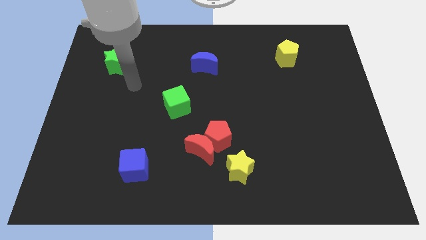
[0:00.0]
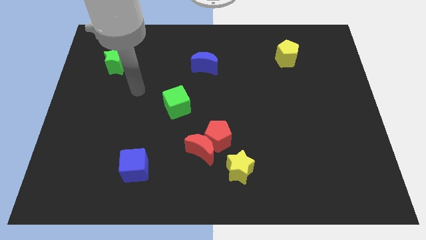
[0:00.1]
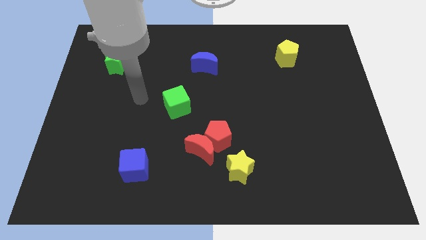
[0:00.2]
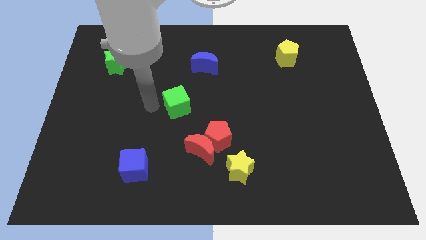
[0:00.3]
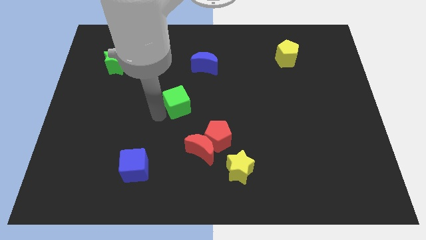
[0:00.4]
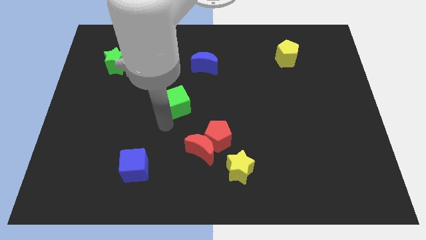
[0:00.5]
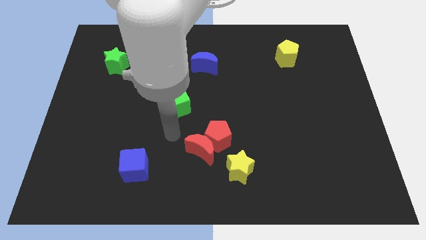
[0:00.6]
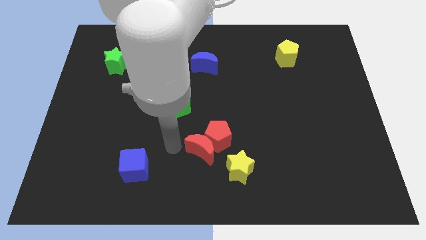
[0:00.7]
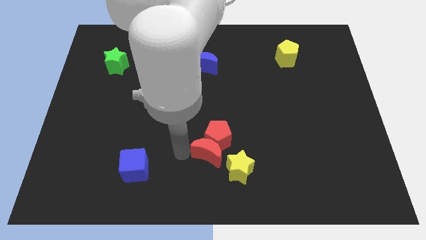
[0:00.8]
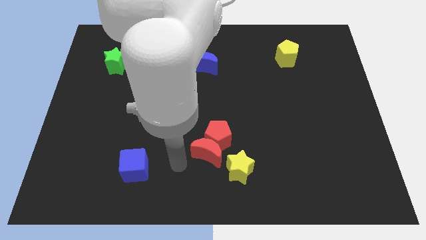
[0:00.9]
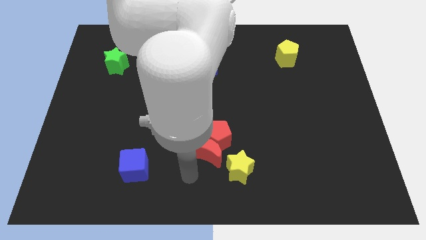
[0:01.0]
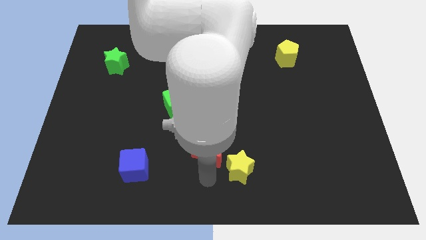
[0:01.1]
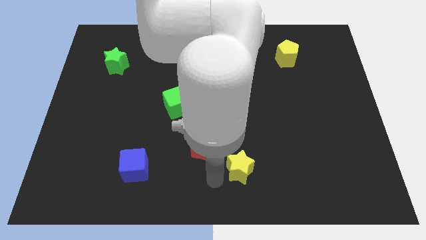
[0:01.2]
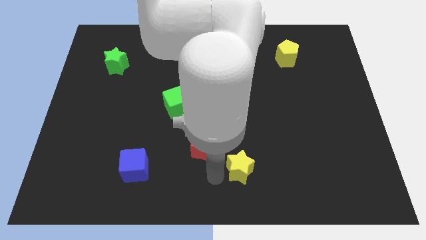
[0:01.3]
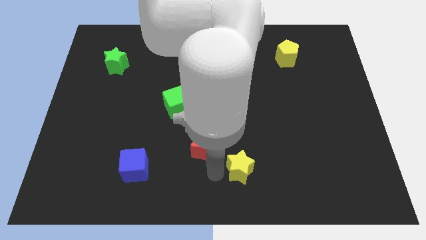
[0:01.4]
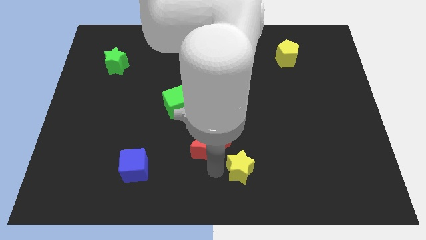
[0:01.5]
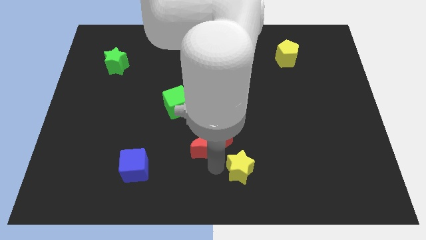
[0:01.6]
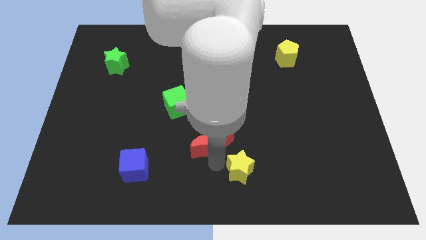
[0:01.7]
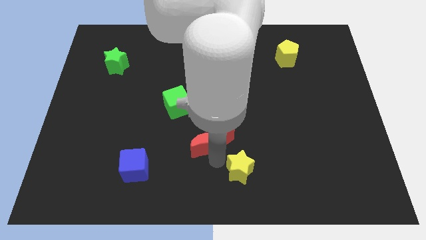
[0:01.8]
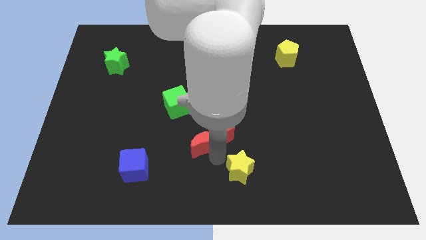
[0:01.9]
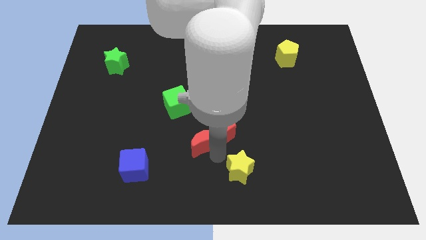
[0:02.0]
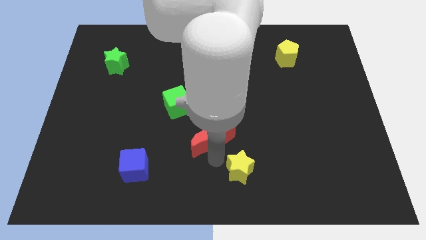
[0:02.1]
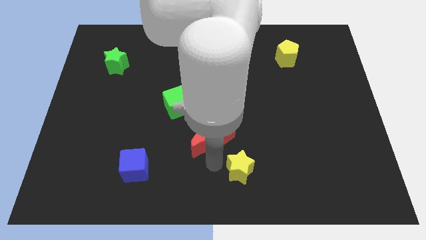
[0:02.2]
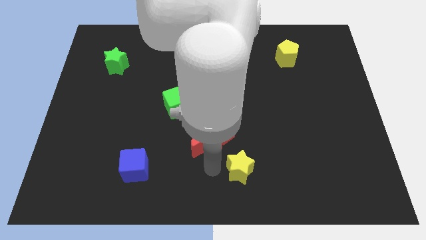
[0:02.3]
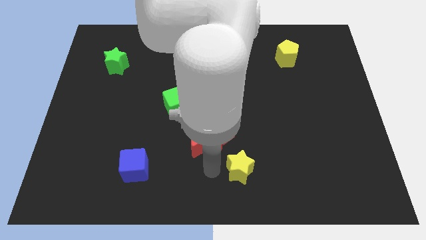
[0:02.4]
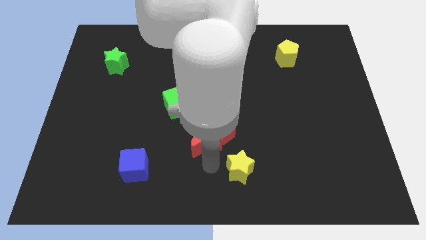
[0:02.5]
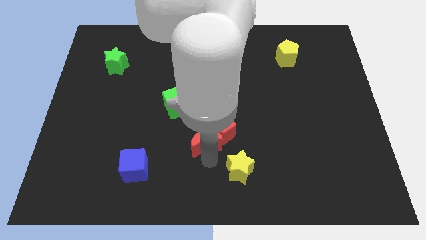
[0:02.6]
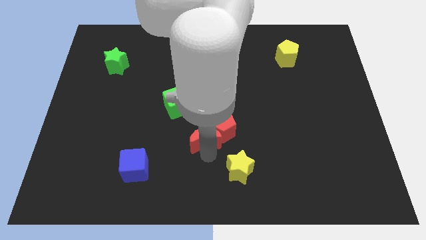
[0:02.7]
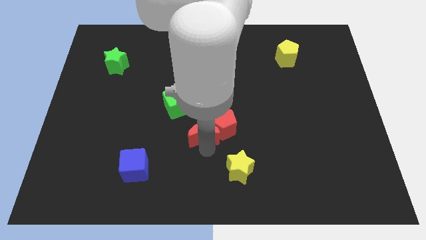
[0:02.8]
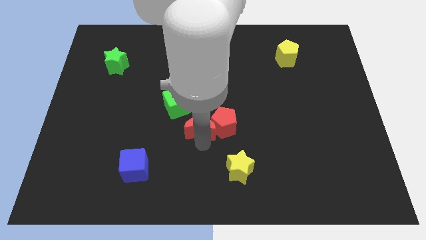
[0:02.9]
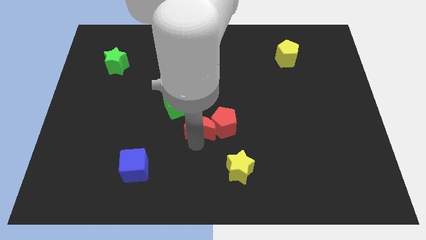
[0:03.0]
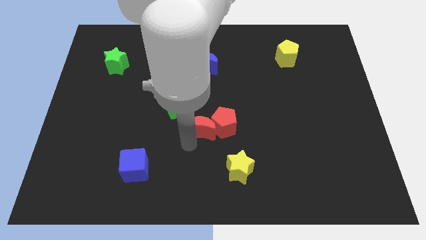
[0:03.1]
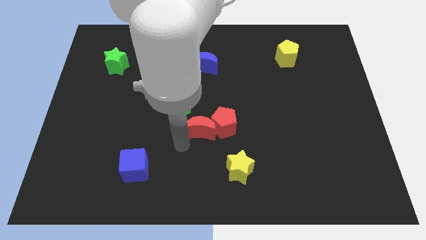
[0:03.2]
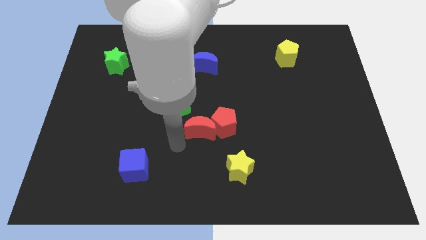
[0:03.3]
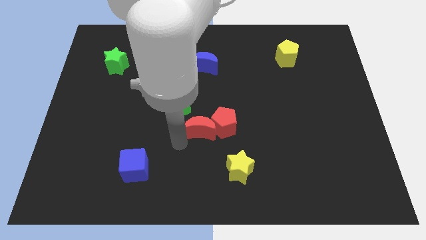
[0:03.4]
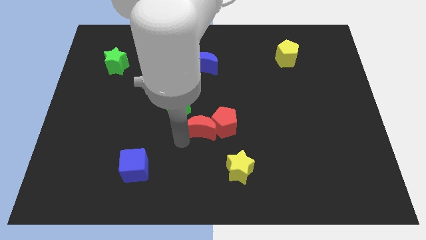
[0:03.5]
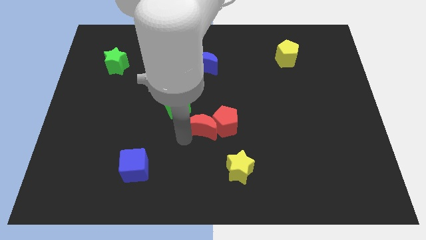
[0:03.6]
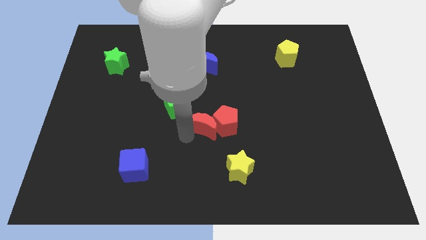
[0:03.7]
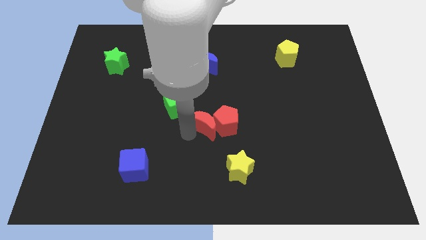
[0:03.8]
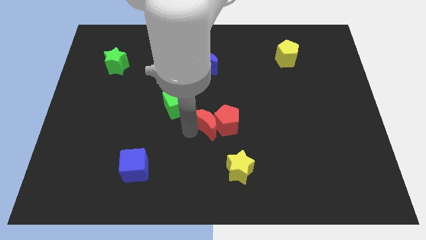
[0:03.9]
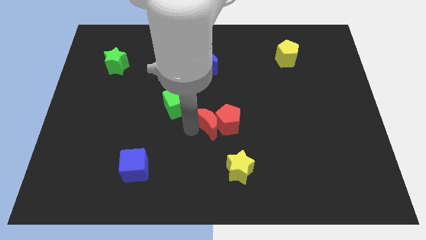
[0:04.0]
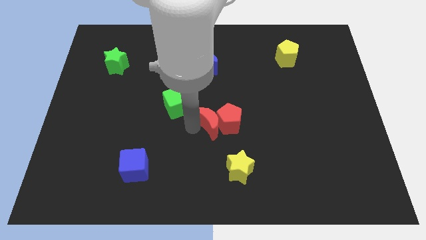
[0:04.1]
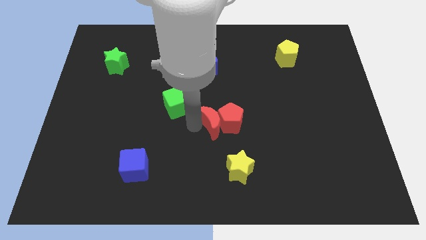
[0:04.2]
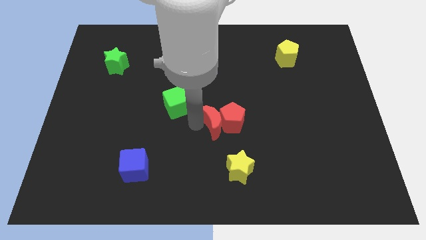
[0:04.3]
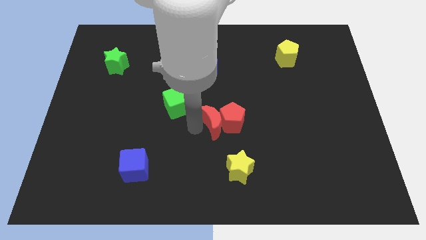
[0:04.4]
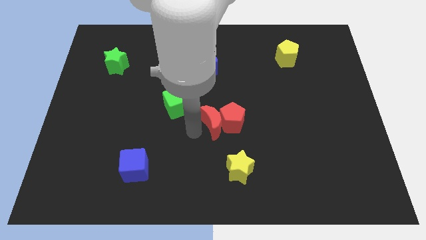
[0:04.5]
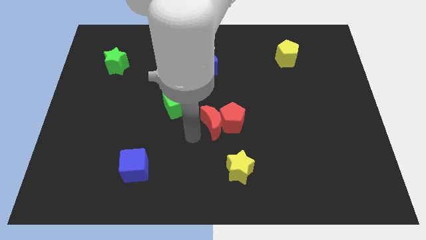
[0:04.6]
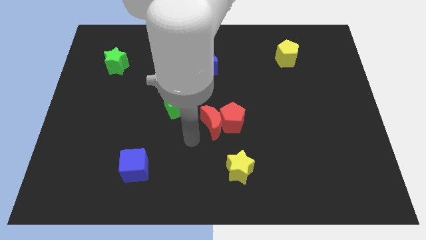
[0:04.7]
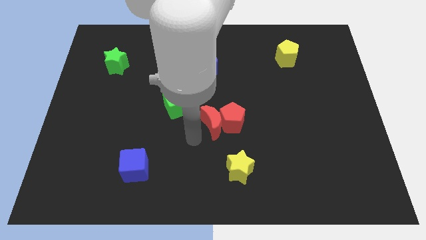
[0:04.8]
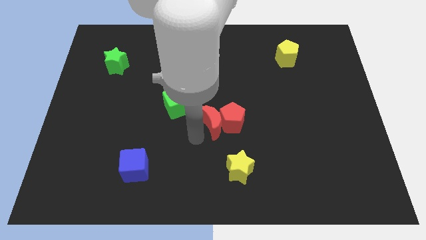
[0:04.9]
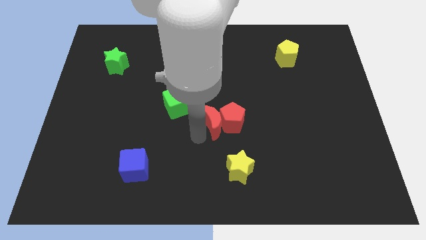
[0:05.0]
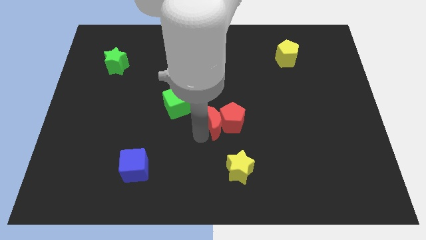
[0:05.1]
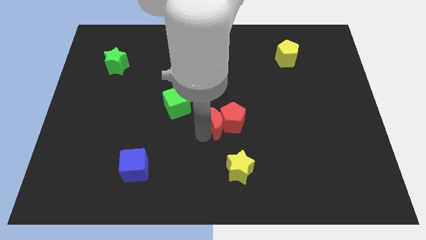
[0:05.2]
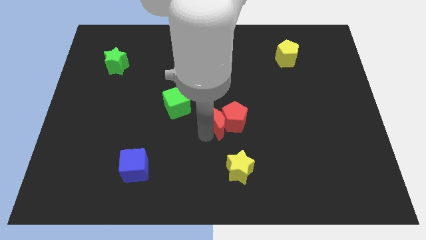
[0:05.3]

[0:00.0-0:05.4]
push the red moon up and right diagonally a bit

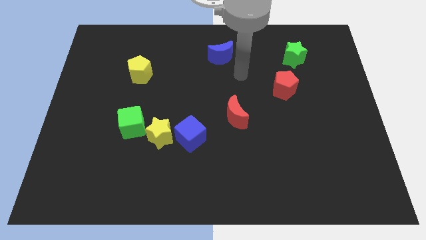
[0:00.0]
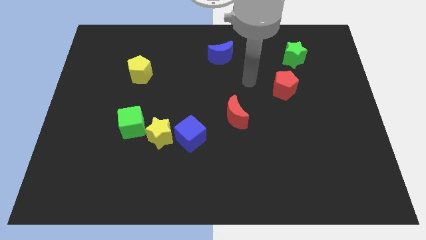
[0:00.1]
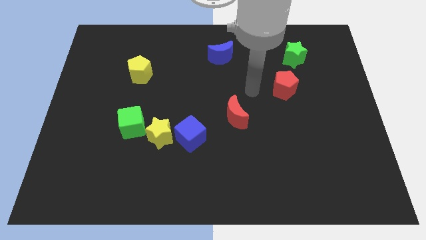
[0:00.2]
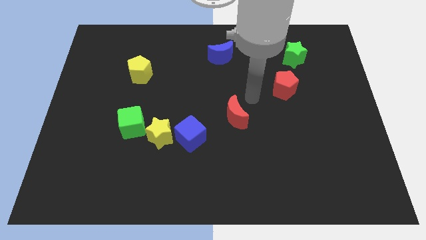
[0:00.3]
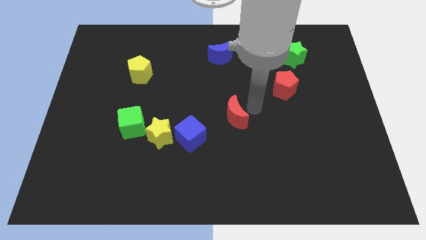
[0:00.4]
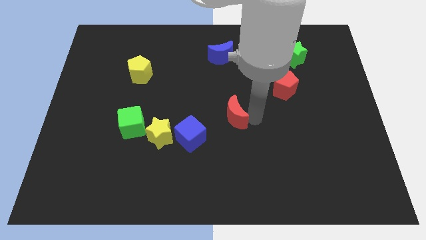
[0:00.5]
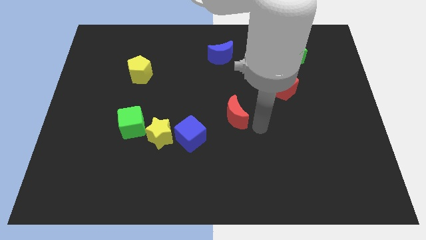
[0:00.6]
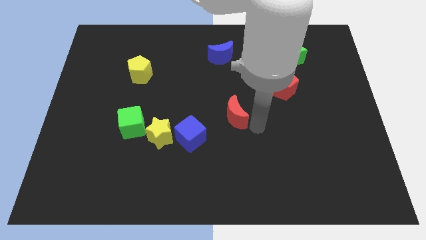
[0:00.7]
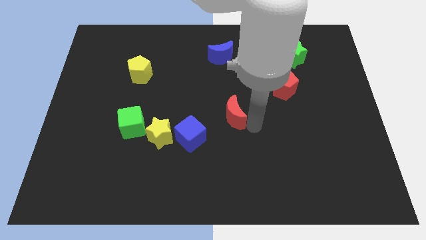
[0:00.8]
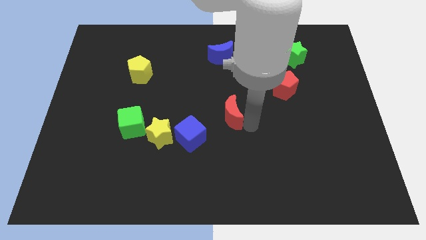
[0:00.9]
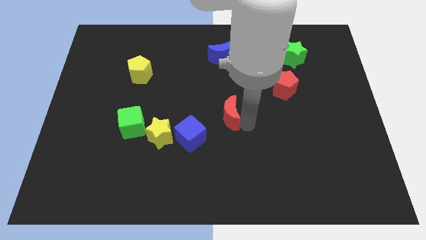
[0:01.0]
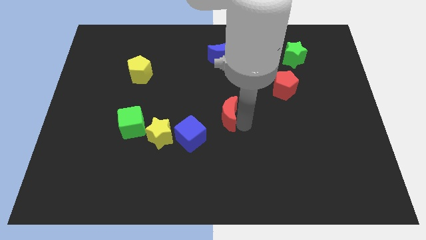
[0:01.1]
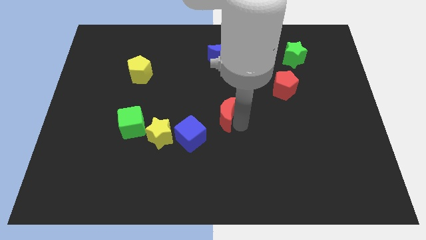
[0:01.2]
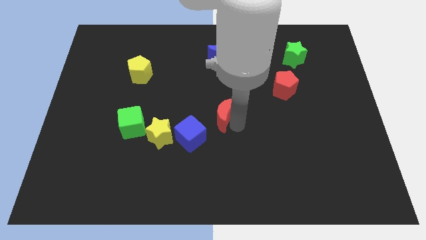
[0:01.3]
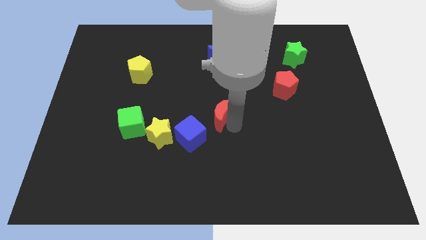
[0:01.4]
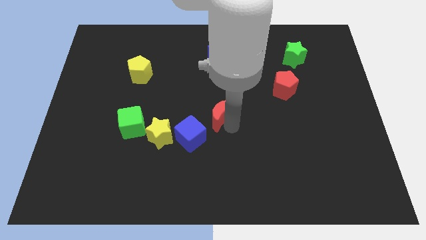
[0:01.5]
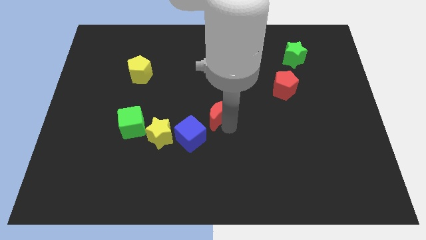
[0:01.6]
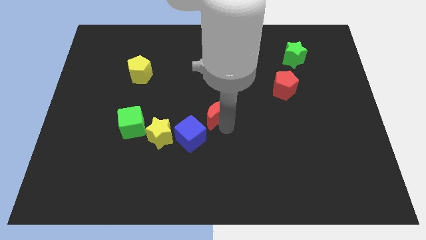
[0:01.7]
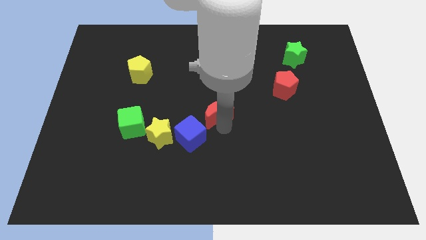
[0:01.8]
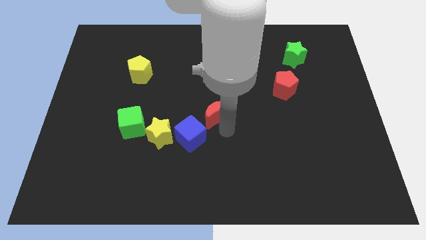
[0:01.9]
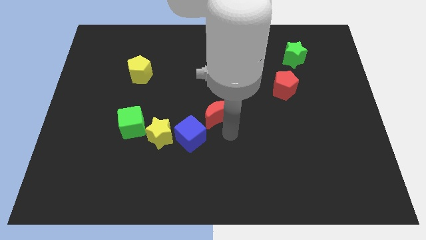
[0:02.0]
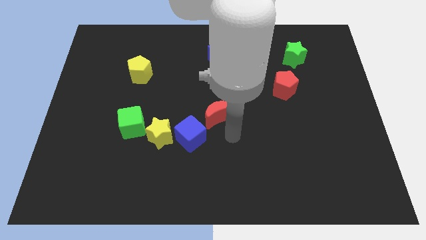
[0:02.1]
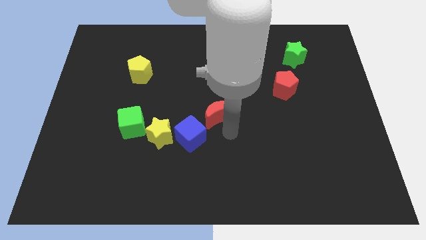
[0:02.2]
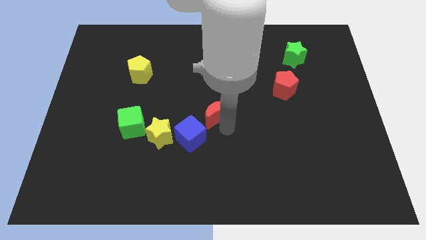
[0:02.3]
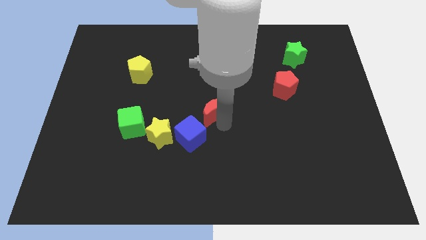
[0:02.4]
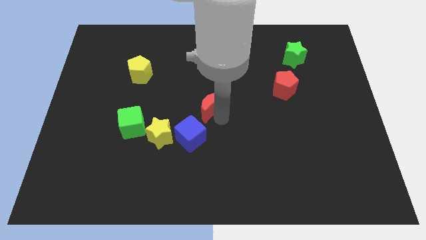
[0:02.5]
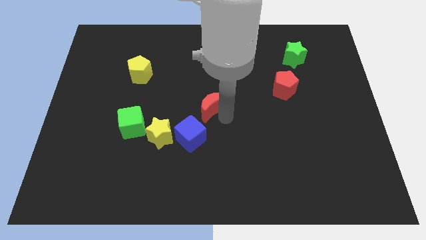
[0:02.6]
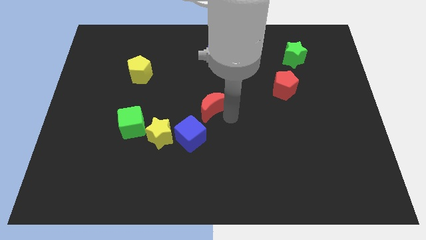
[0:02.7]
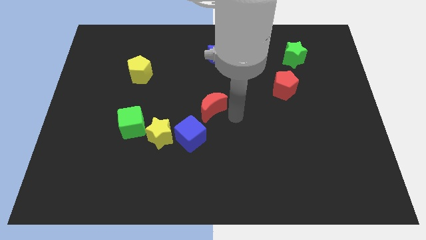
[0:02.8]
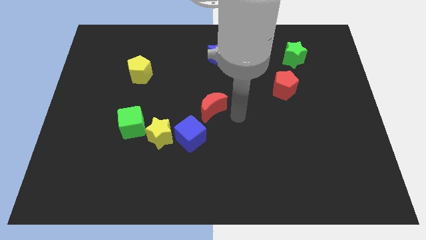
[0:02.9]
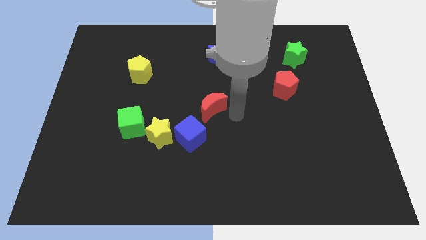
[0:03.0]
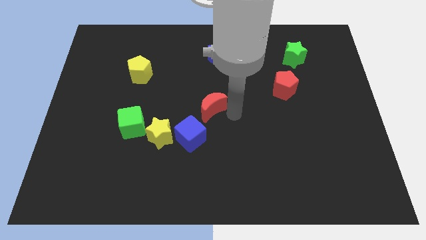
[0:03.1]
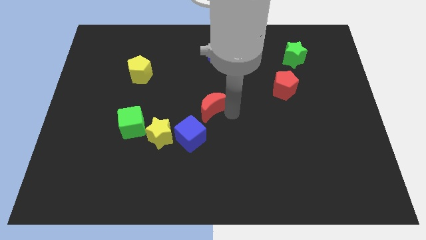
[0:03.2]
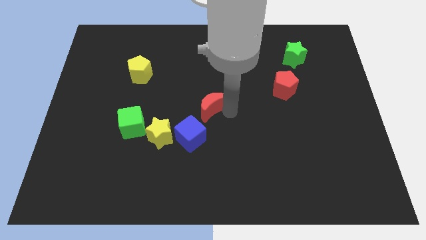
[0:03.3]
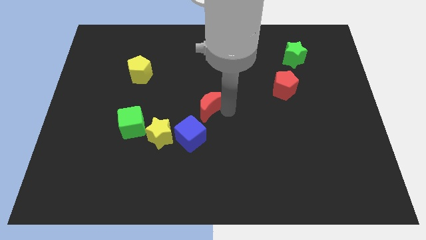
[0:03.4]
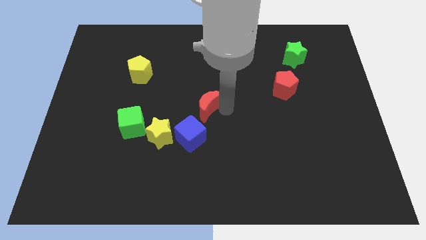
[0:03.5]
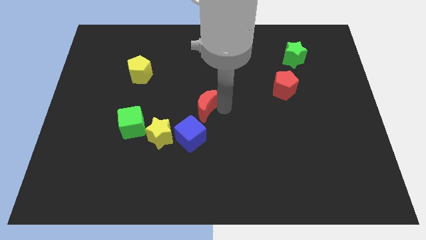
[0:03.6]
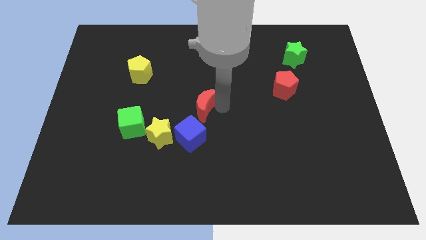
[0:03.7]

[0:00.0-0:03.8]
slightly move the red moon to the left
